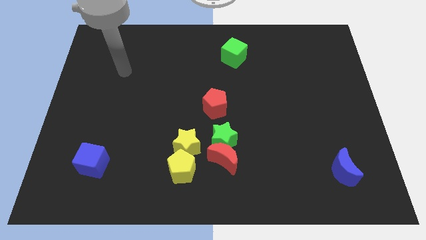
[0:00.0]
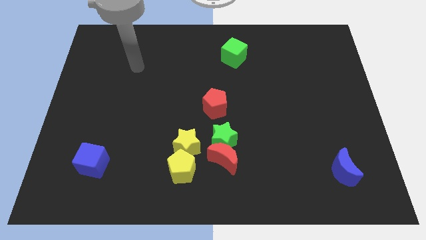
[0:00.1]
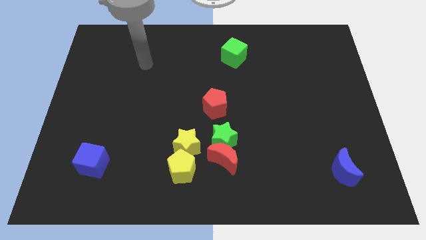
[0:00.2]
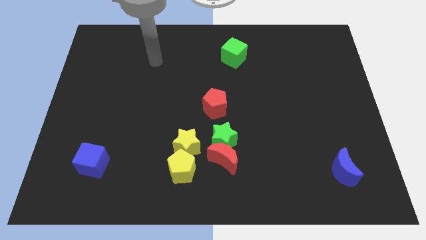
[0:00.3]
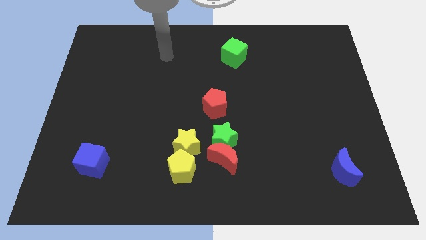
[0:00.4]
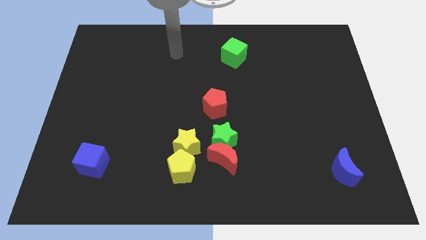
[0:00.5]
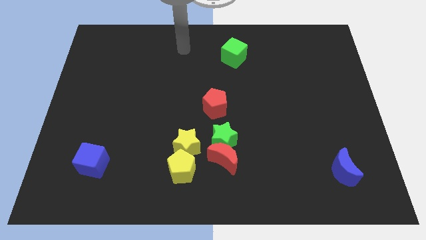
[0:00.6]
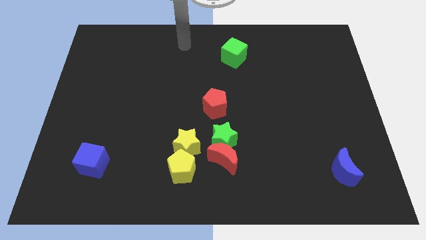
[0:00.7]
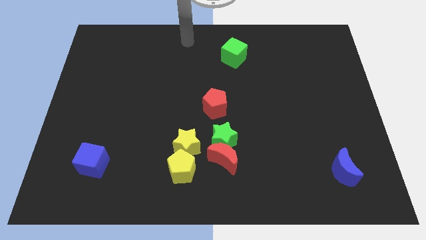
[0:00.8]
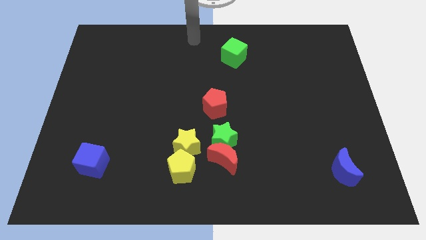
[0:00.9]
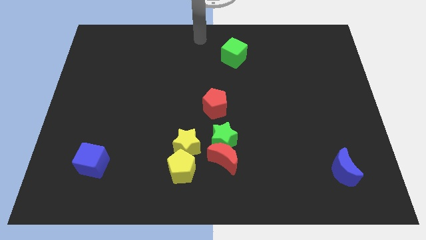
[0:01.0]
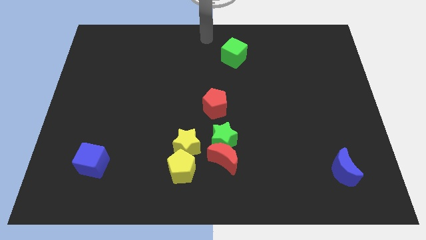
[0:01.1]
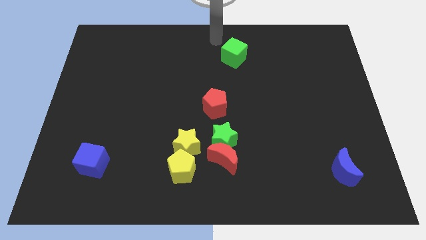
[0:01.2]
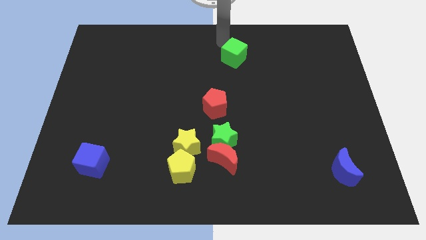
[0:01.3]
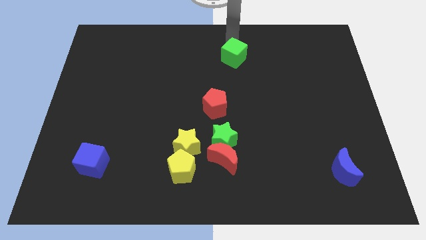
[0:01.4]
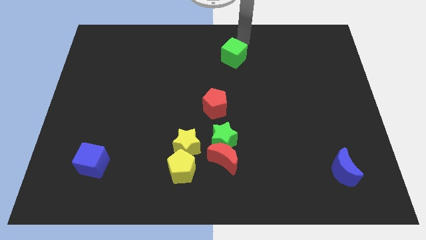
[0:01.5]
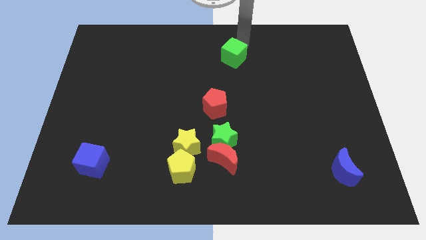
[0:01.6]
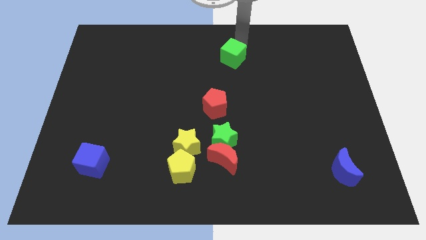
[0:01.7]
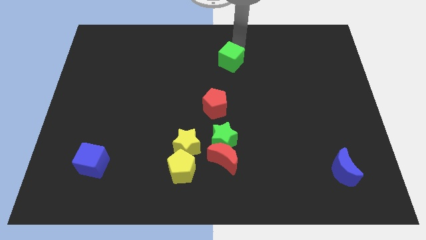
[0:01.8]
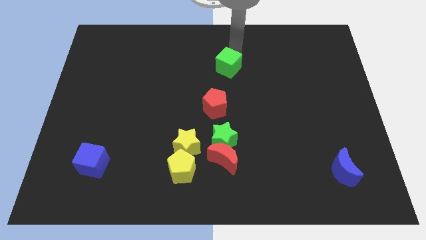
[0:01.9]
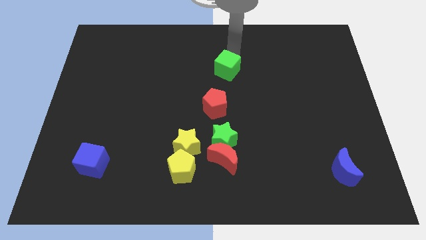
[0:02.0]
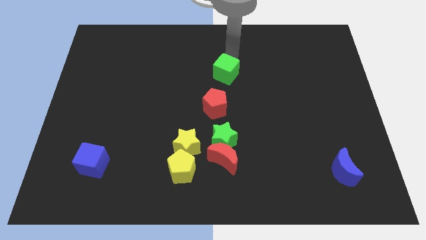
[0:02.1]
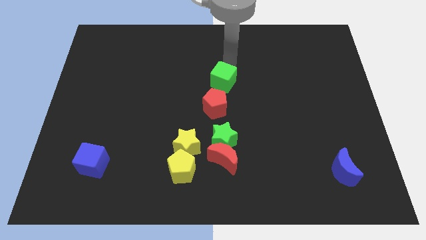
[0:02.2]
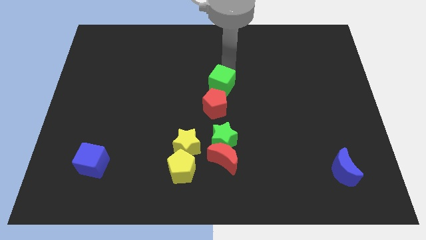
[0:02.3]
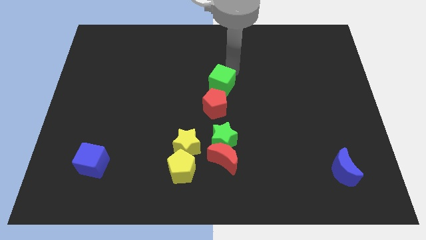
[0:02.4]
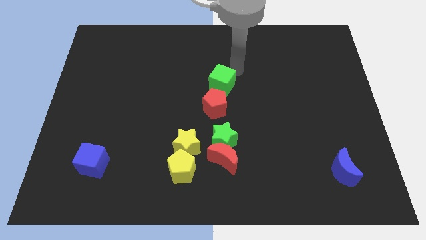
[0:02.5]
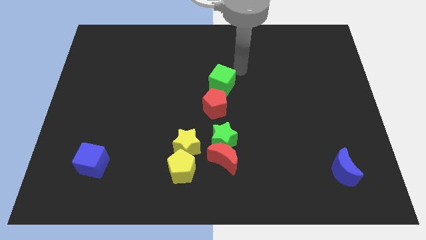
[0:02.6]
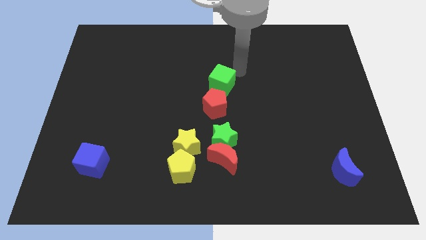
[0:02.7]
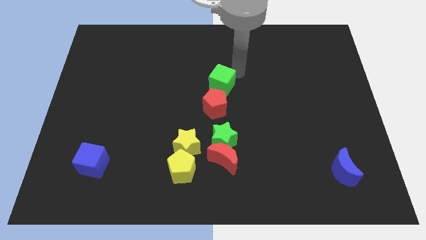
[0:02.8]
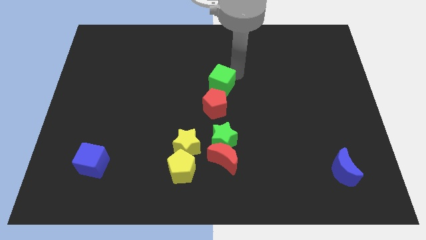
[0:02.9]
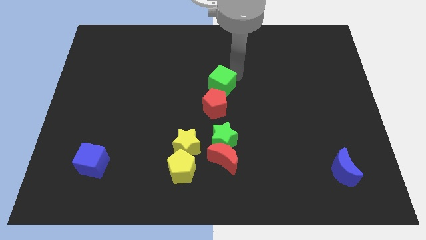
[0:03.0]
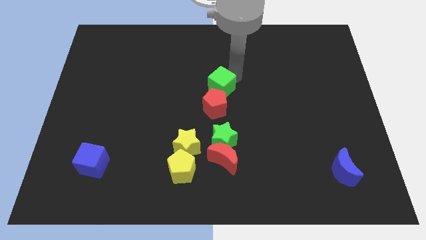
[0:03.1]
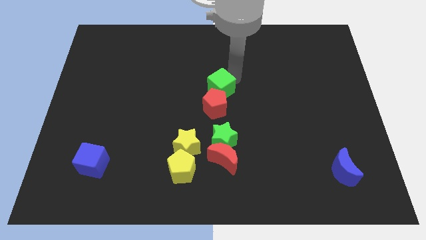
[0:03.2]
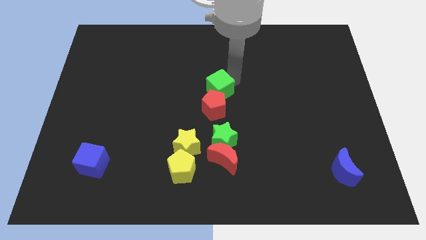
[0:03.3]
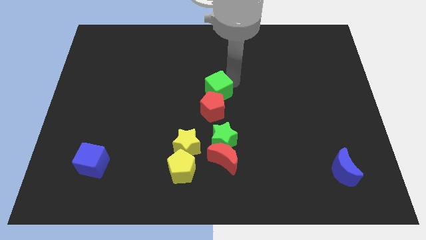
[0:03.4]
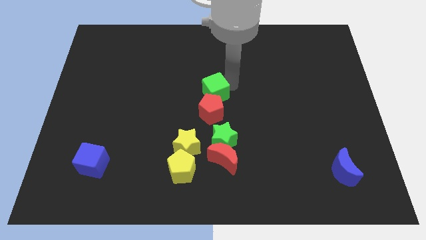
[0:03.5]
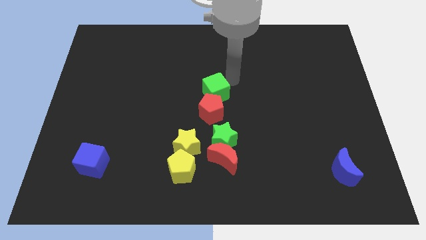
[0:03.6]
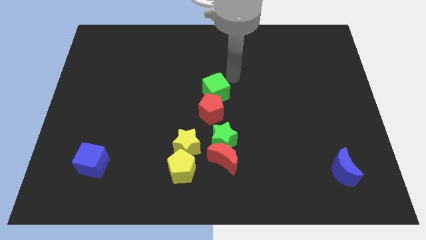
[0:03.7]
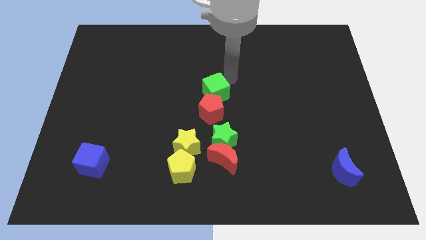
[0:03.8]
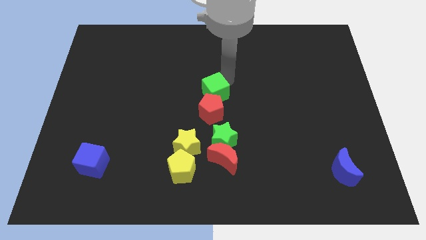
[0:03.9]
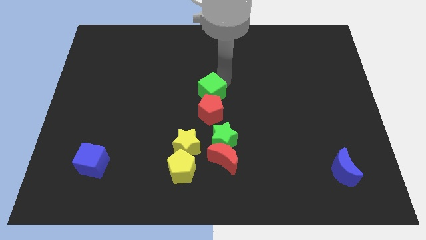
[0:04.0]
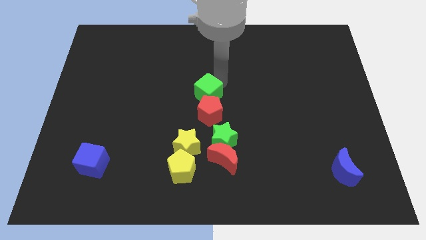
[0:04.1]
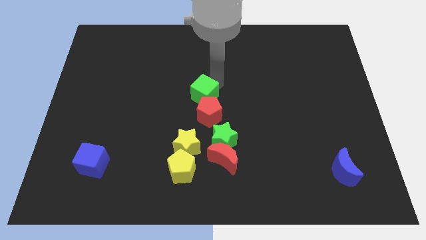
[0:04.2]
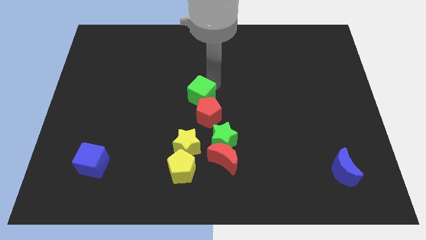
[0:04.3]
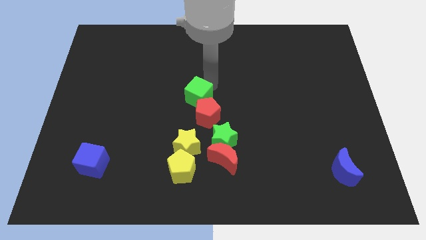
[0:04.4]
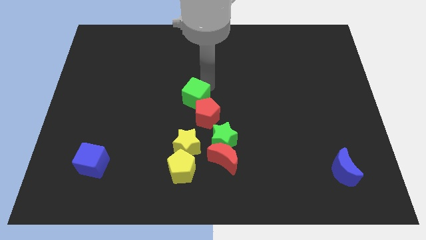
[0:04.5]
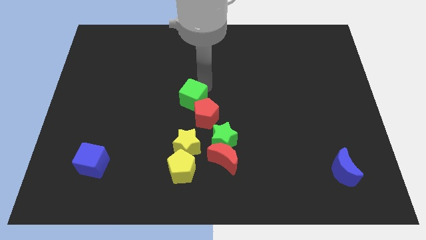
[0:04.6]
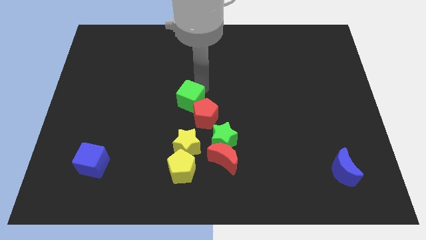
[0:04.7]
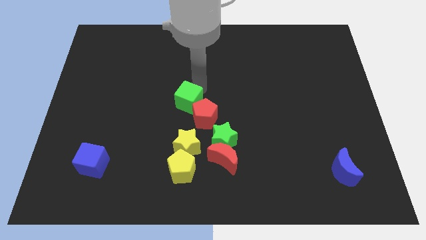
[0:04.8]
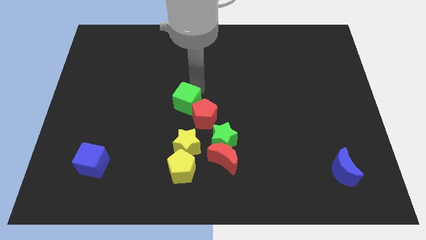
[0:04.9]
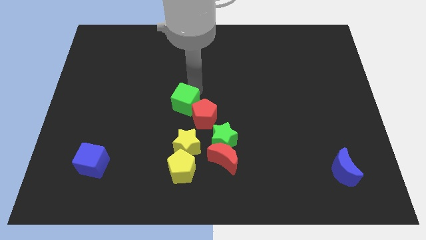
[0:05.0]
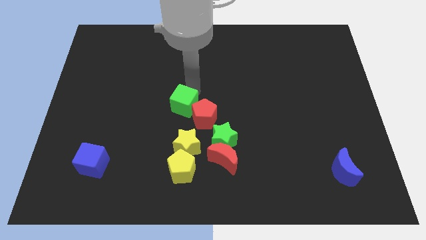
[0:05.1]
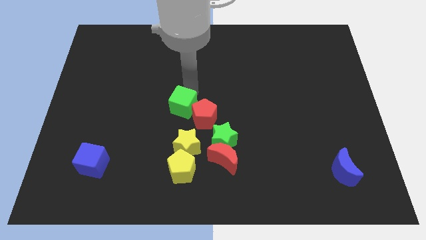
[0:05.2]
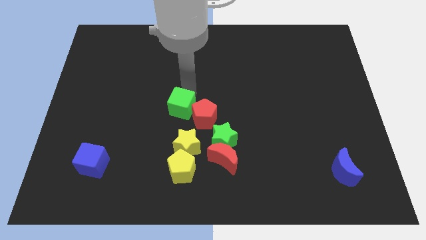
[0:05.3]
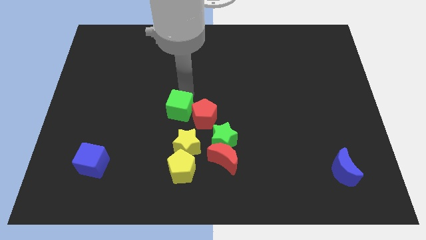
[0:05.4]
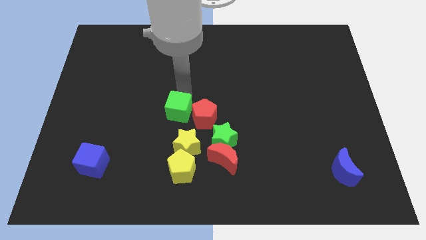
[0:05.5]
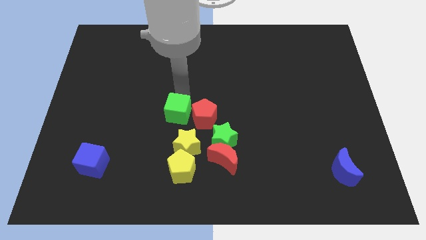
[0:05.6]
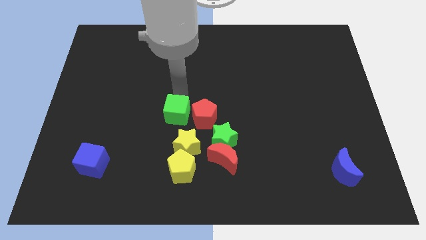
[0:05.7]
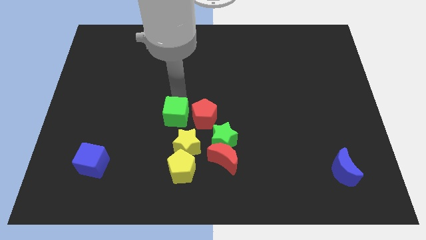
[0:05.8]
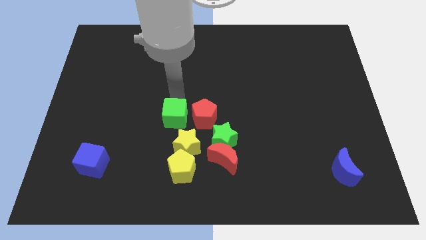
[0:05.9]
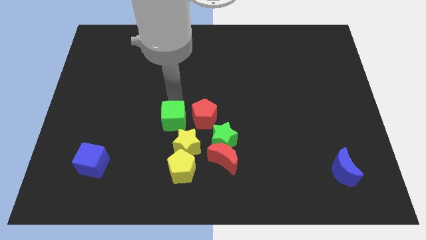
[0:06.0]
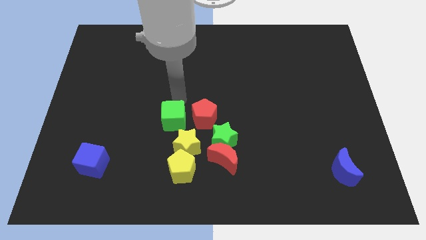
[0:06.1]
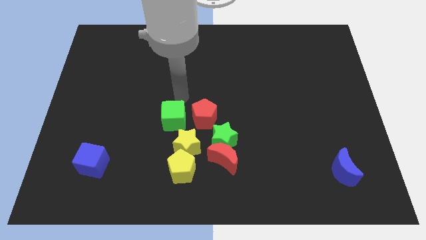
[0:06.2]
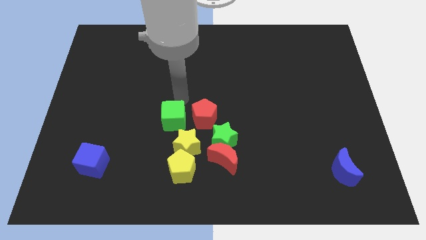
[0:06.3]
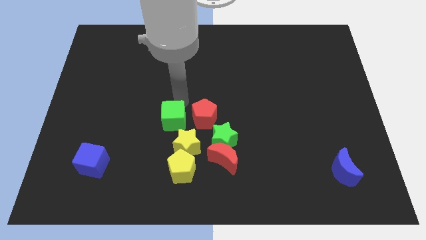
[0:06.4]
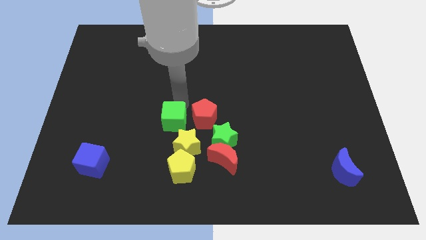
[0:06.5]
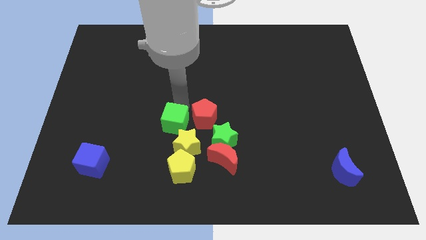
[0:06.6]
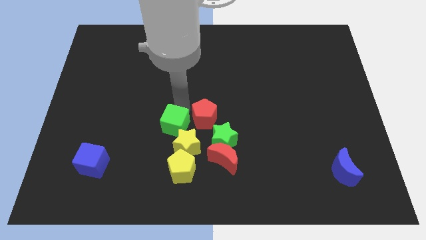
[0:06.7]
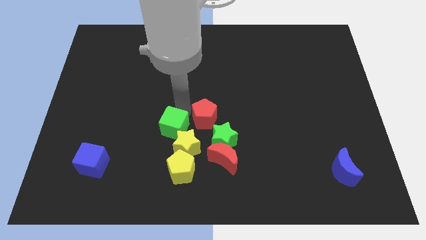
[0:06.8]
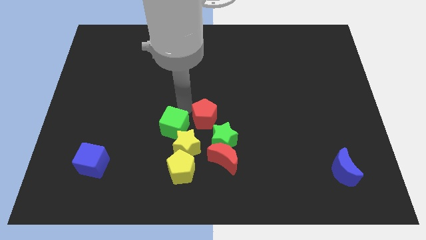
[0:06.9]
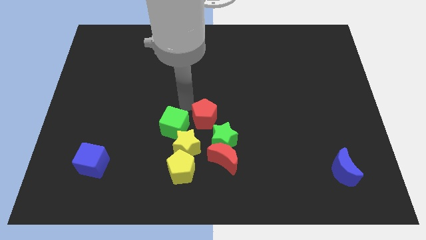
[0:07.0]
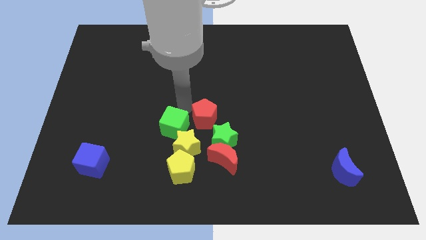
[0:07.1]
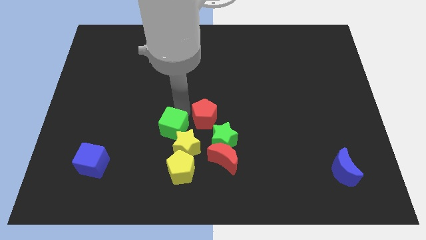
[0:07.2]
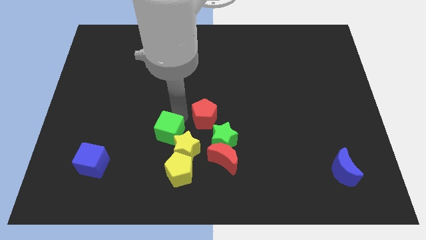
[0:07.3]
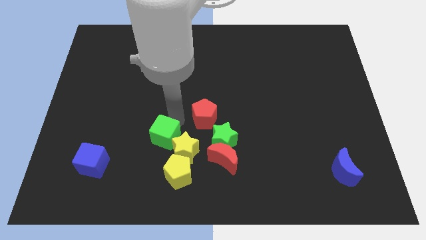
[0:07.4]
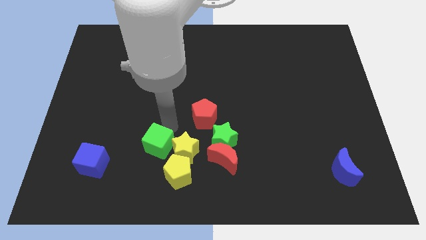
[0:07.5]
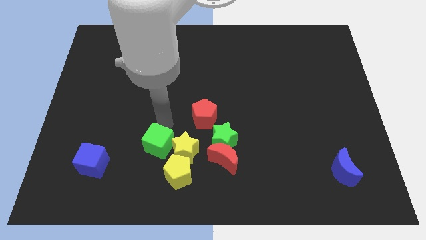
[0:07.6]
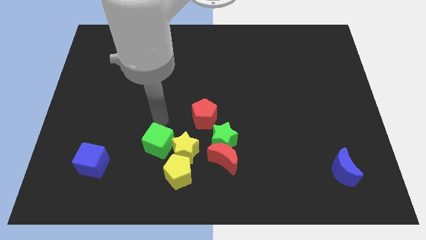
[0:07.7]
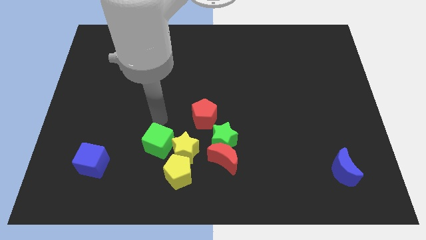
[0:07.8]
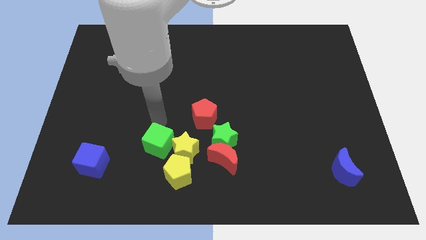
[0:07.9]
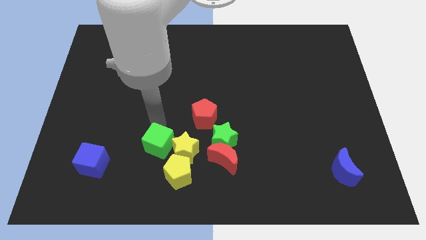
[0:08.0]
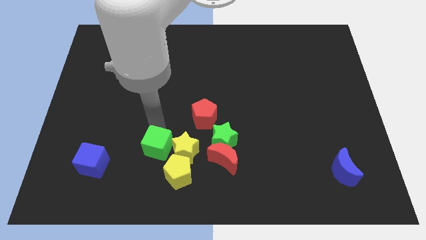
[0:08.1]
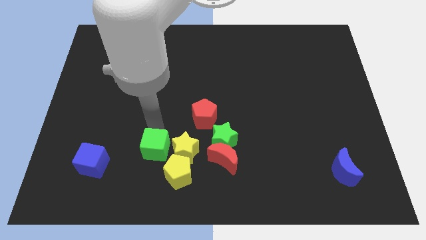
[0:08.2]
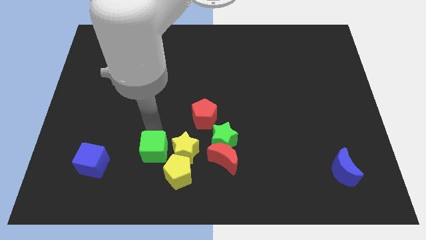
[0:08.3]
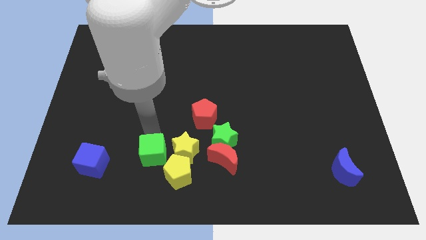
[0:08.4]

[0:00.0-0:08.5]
push the green cube diagonally down and to the left of the yellow star
